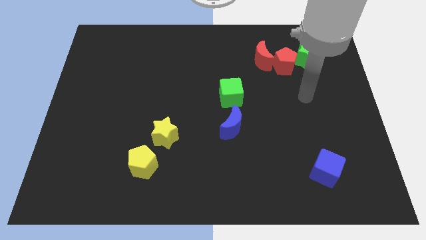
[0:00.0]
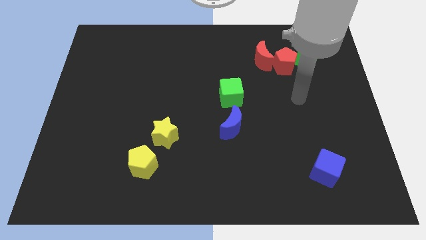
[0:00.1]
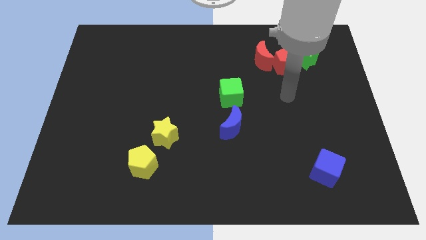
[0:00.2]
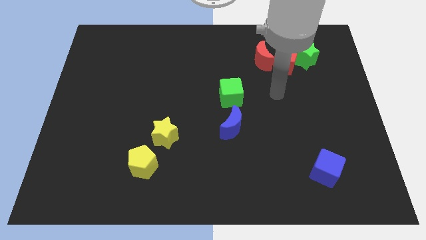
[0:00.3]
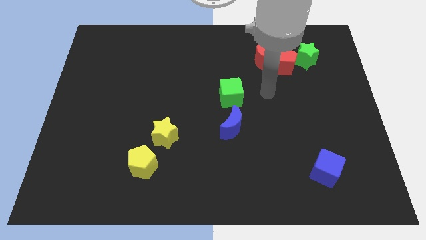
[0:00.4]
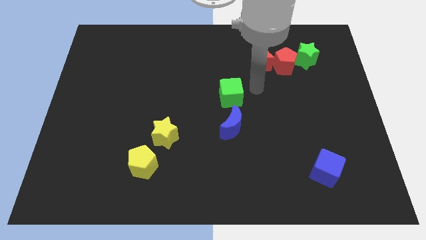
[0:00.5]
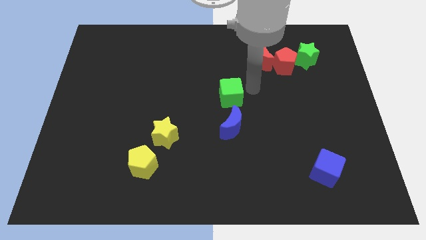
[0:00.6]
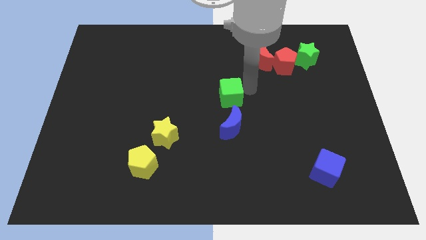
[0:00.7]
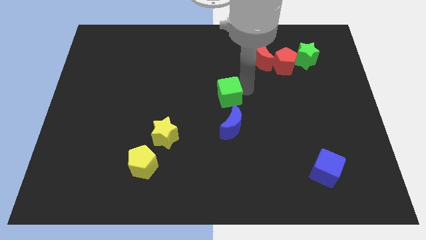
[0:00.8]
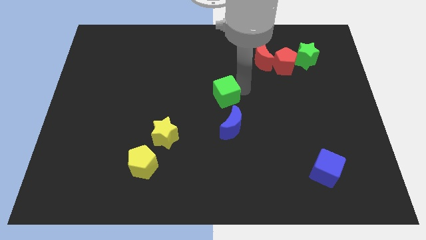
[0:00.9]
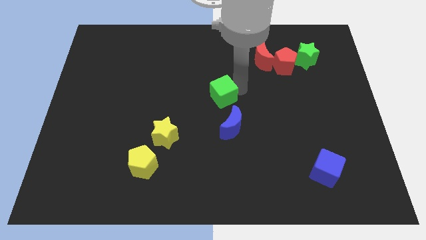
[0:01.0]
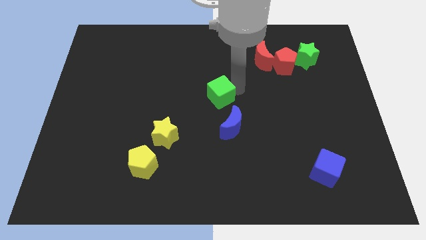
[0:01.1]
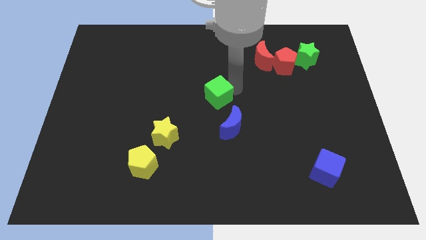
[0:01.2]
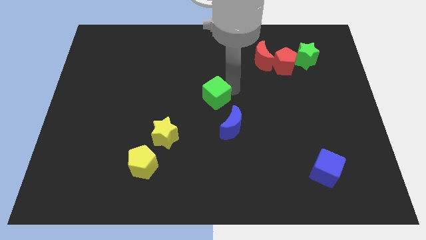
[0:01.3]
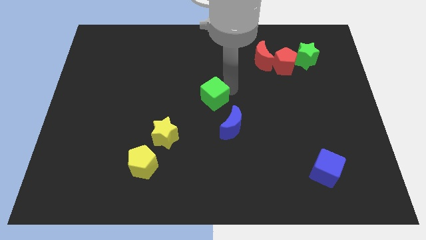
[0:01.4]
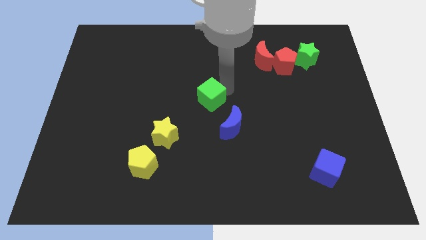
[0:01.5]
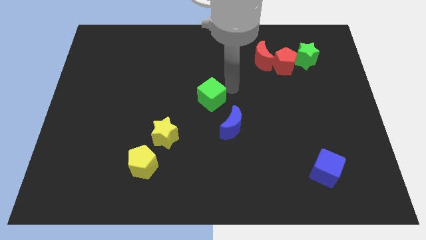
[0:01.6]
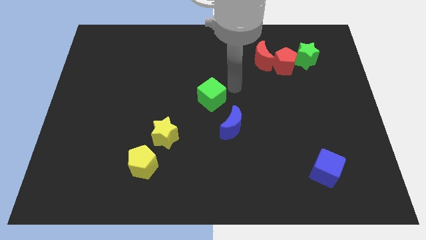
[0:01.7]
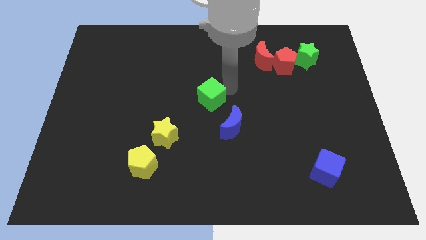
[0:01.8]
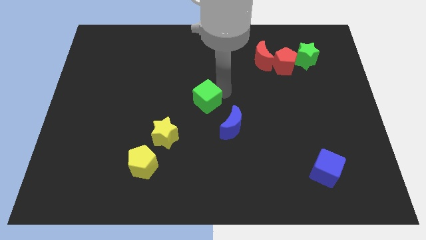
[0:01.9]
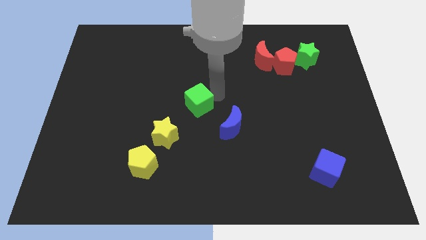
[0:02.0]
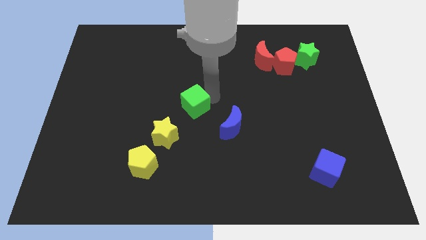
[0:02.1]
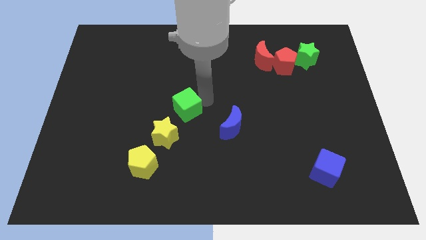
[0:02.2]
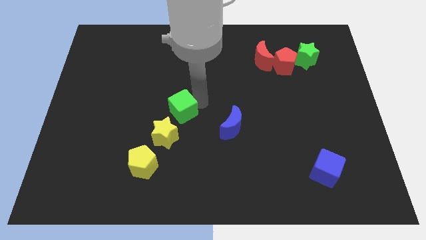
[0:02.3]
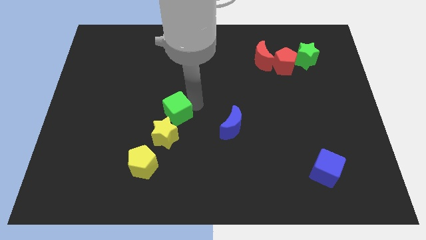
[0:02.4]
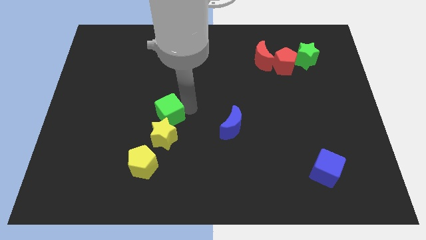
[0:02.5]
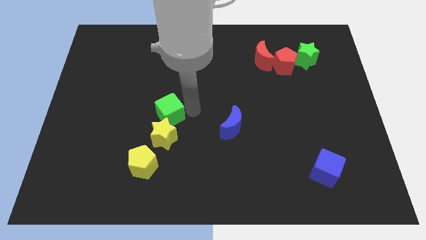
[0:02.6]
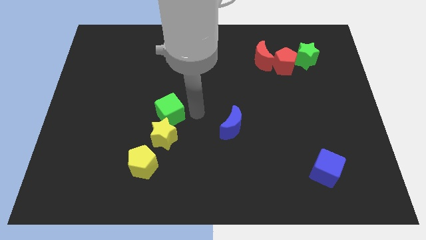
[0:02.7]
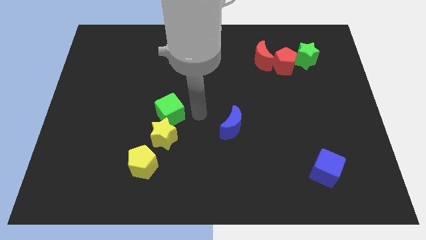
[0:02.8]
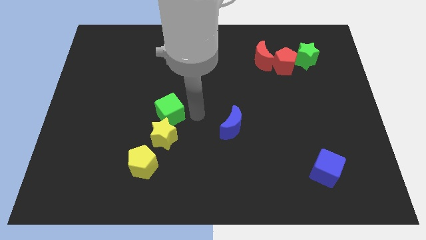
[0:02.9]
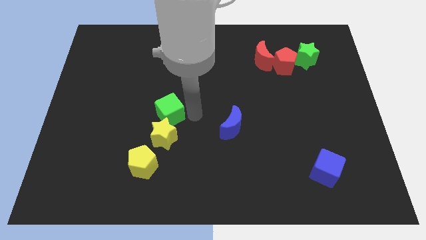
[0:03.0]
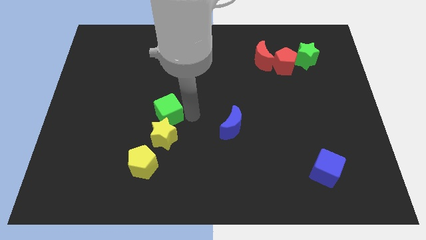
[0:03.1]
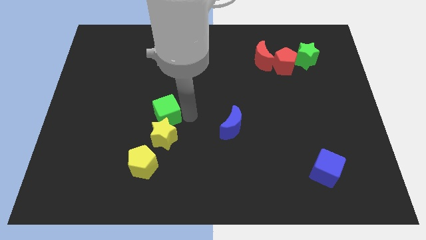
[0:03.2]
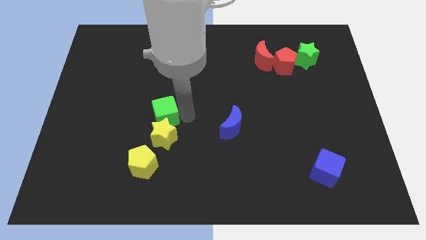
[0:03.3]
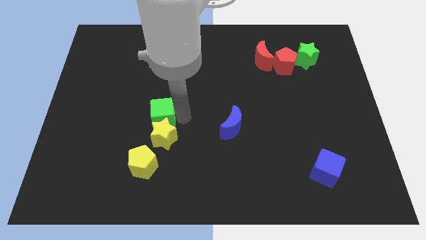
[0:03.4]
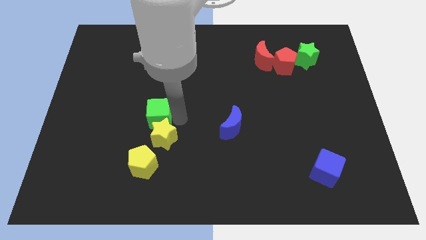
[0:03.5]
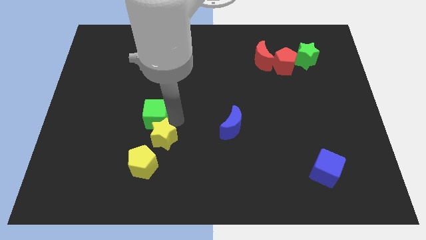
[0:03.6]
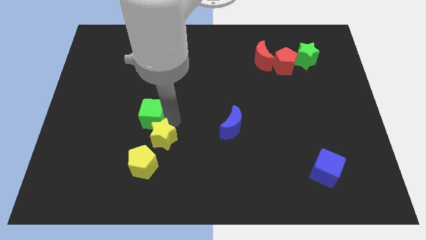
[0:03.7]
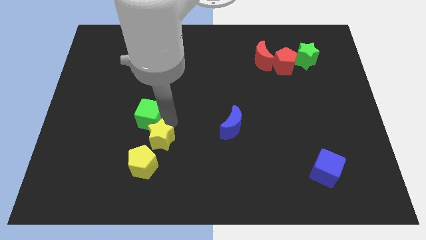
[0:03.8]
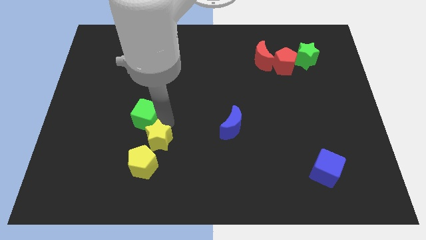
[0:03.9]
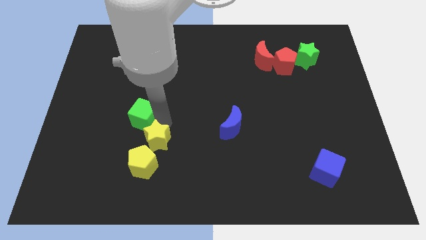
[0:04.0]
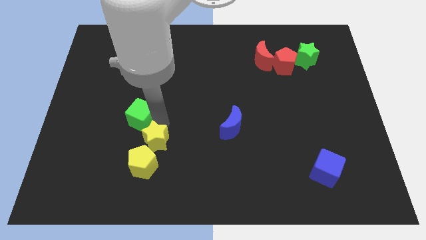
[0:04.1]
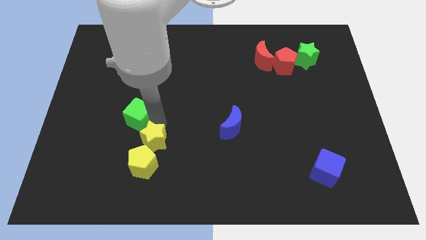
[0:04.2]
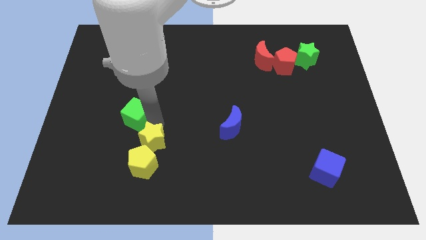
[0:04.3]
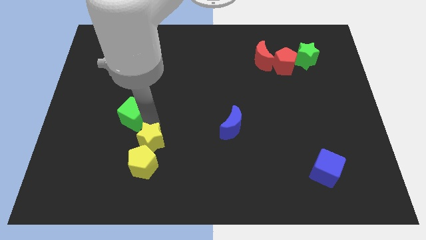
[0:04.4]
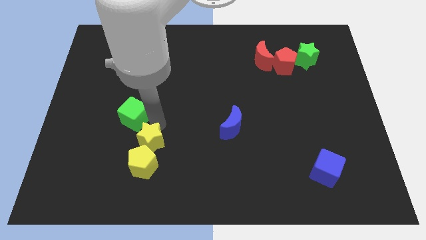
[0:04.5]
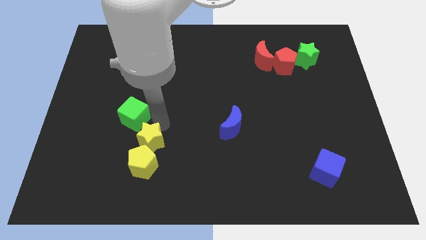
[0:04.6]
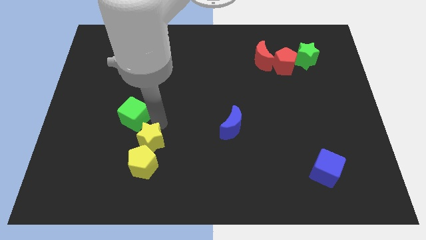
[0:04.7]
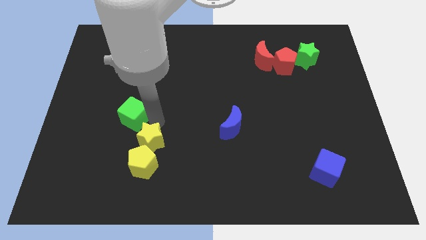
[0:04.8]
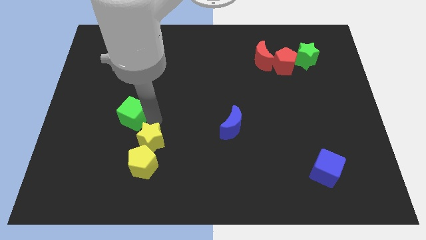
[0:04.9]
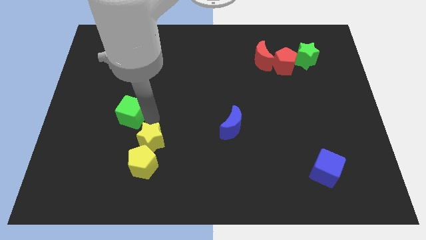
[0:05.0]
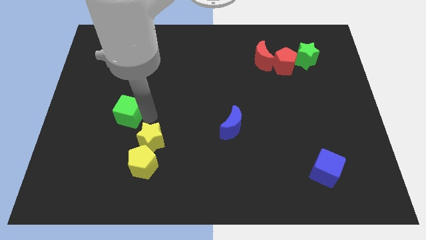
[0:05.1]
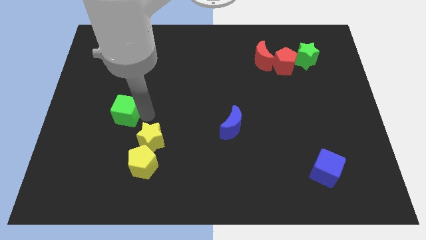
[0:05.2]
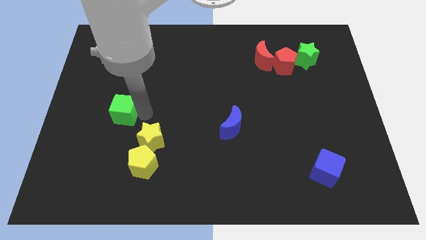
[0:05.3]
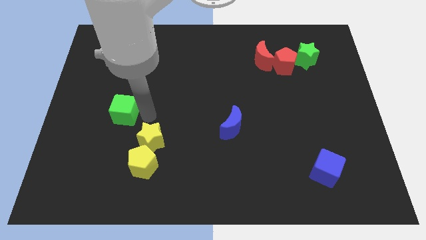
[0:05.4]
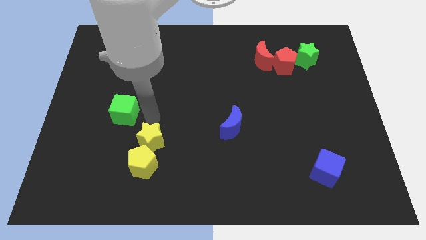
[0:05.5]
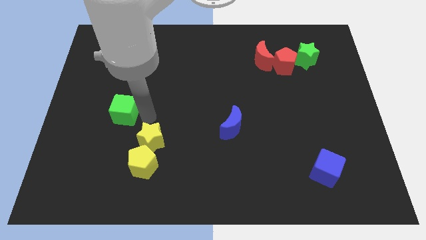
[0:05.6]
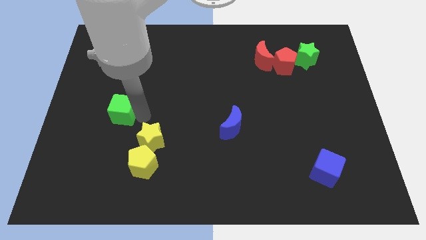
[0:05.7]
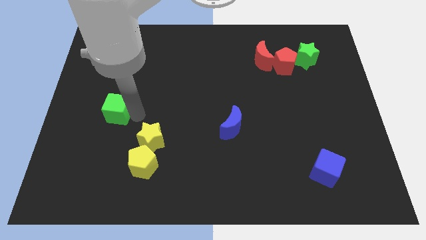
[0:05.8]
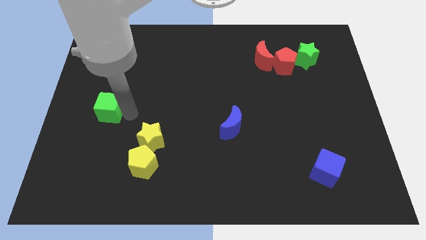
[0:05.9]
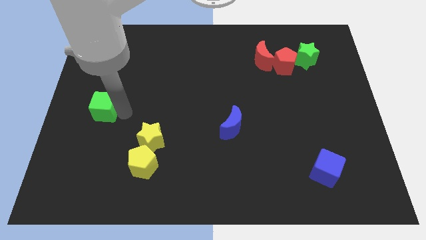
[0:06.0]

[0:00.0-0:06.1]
push the green cube to the left side of the board

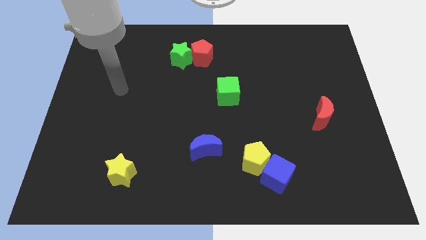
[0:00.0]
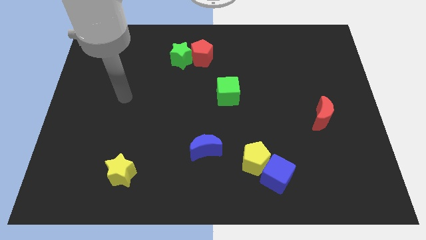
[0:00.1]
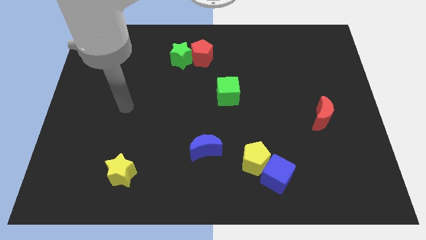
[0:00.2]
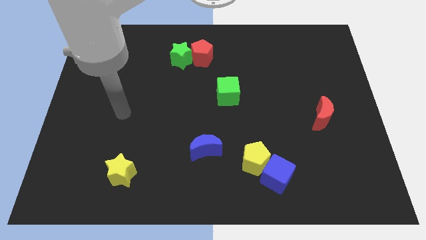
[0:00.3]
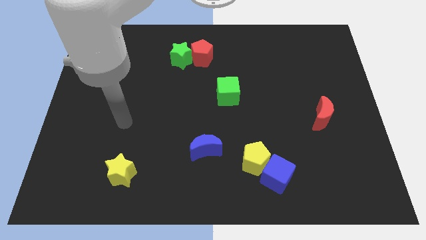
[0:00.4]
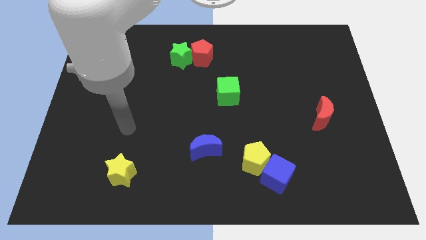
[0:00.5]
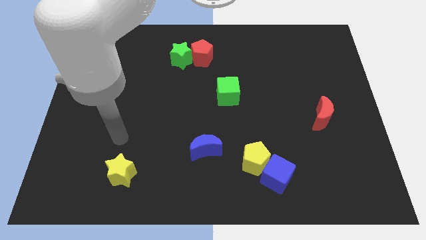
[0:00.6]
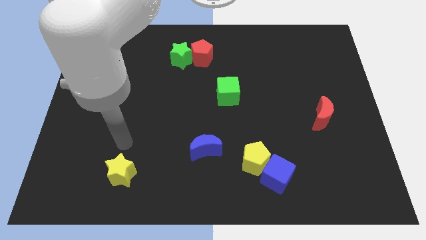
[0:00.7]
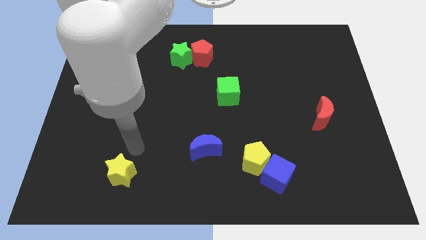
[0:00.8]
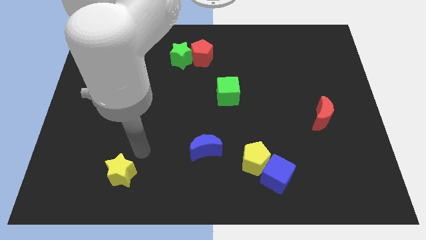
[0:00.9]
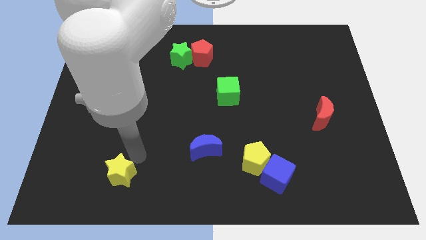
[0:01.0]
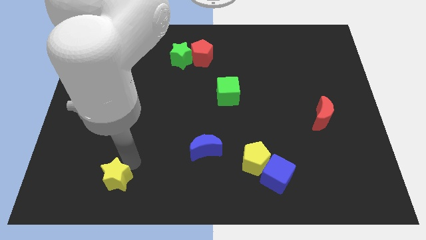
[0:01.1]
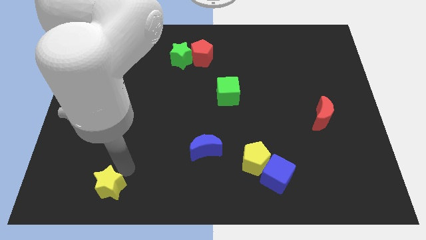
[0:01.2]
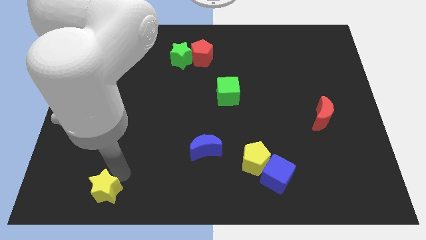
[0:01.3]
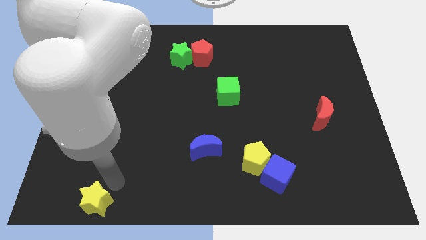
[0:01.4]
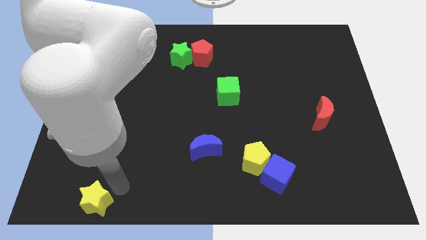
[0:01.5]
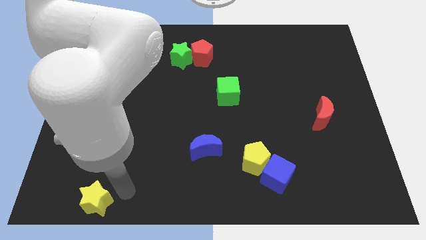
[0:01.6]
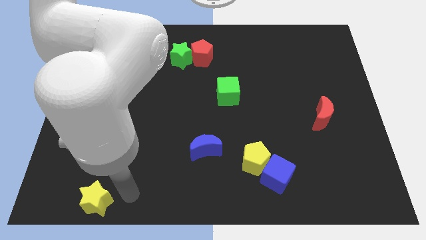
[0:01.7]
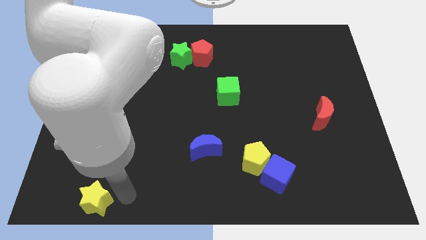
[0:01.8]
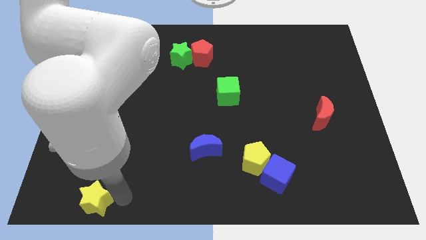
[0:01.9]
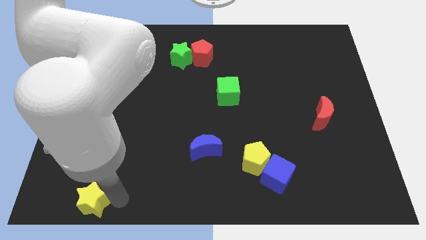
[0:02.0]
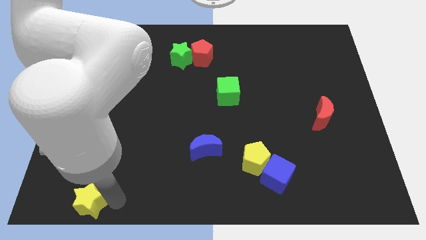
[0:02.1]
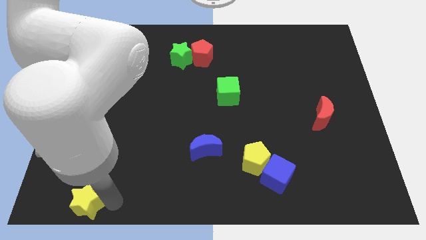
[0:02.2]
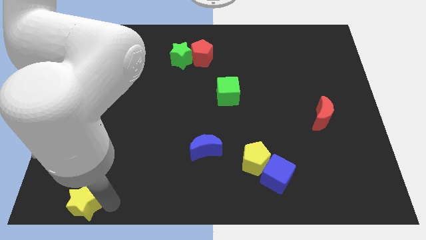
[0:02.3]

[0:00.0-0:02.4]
slide the yellow star to the bottom left of the board
